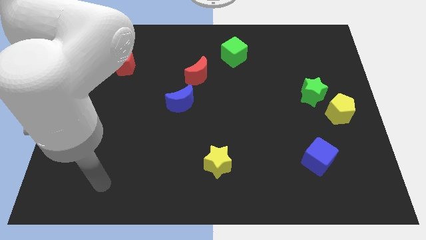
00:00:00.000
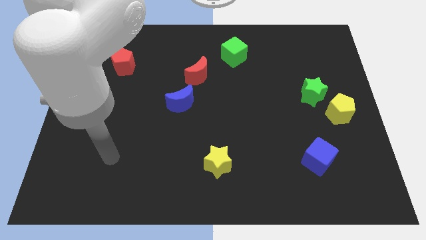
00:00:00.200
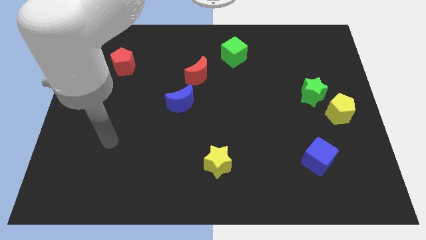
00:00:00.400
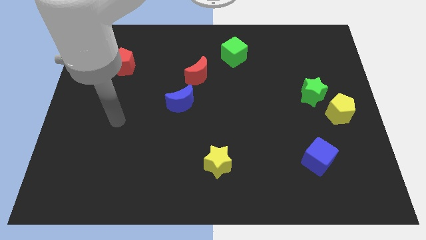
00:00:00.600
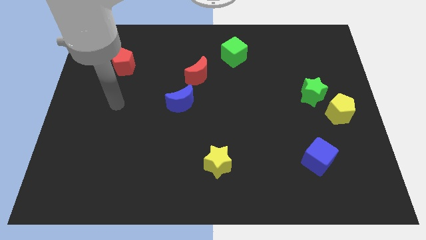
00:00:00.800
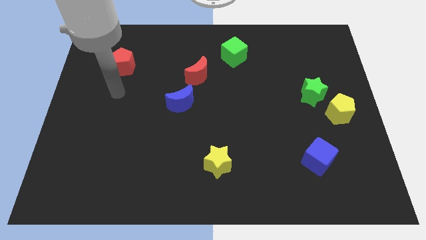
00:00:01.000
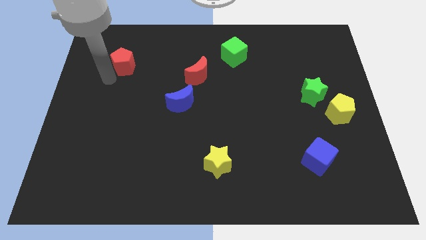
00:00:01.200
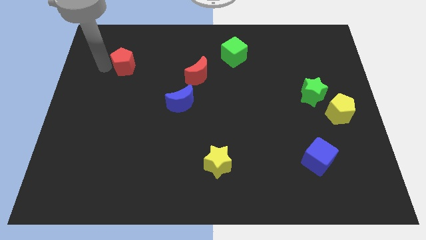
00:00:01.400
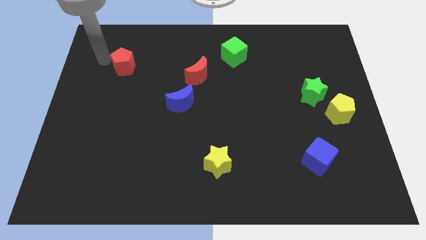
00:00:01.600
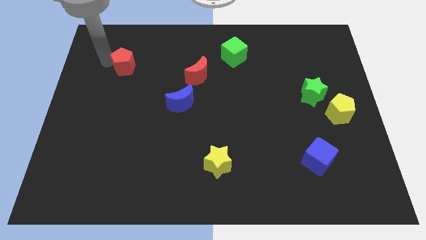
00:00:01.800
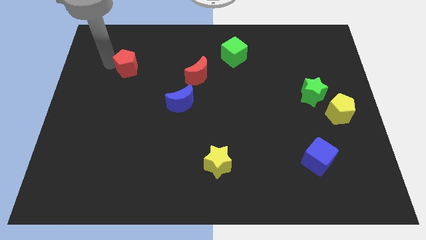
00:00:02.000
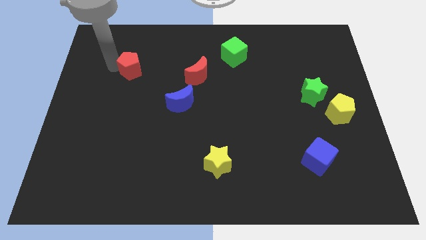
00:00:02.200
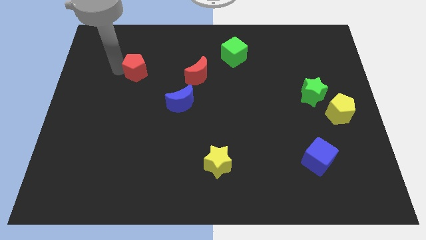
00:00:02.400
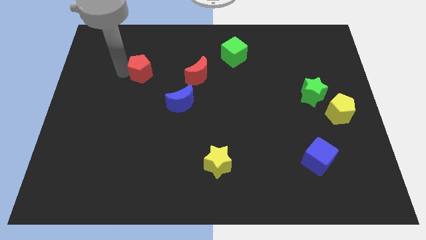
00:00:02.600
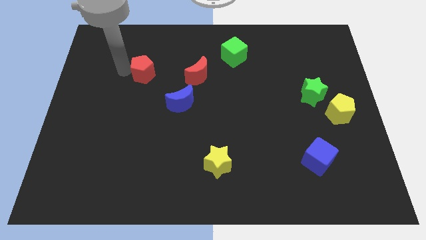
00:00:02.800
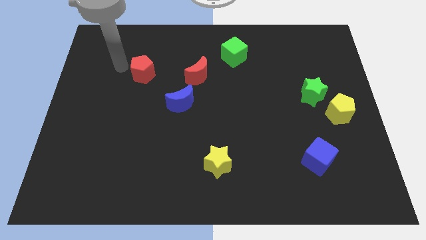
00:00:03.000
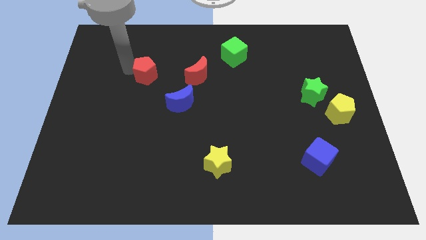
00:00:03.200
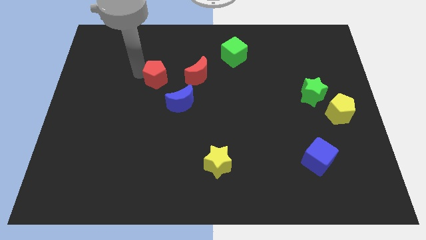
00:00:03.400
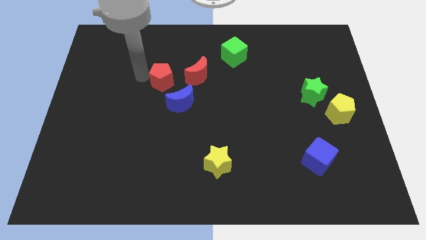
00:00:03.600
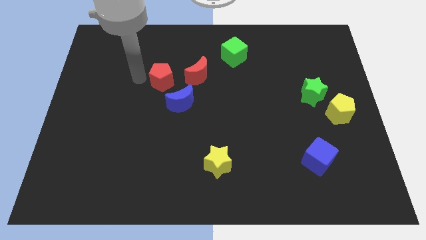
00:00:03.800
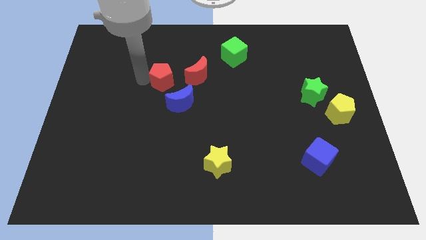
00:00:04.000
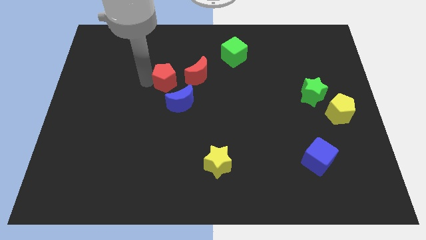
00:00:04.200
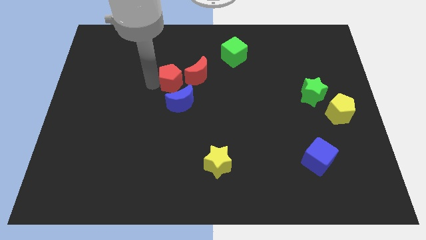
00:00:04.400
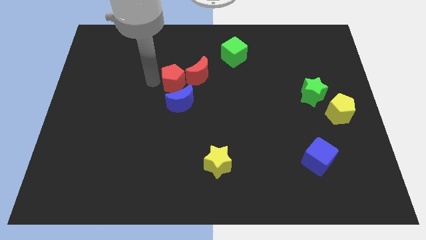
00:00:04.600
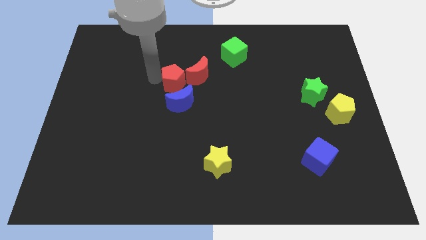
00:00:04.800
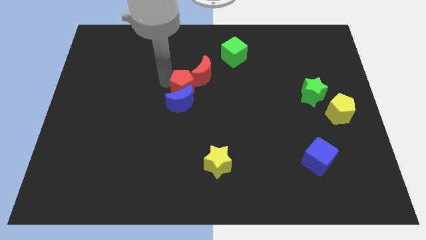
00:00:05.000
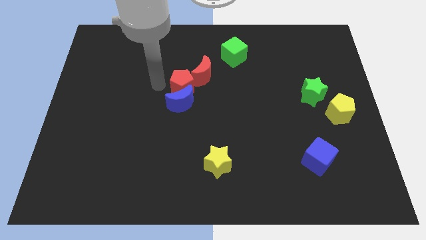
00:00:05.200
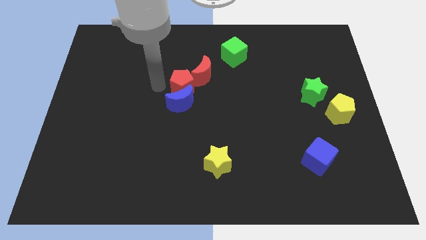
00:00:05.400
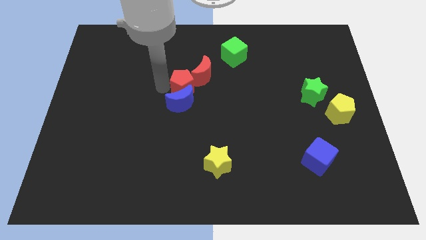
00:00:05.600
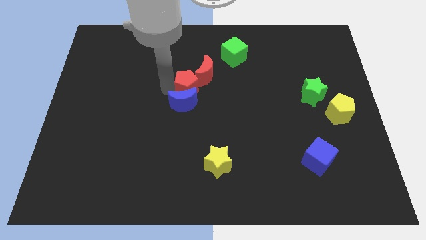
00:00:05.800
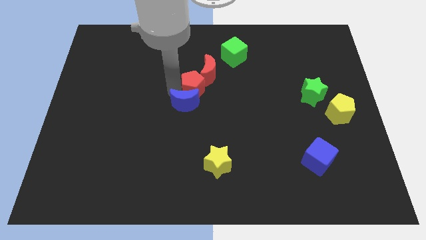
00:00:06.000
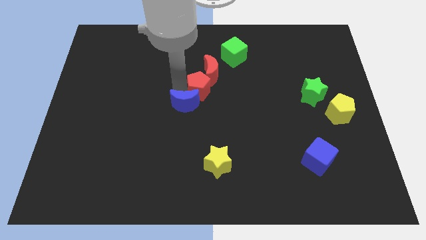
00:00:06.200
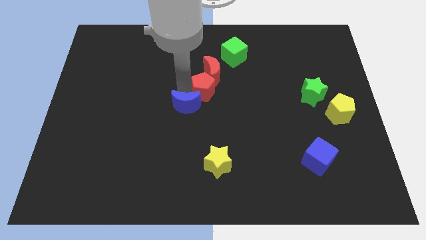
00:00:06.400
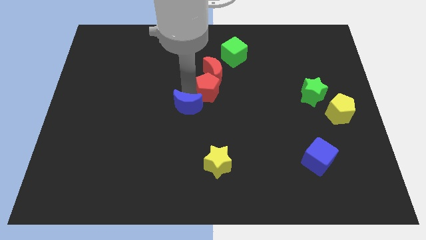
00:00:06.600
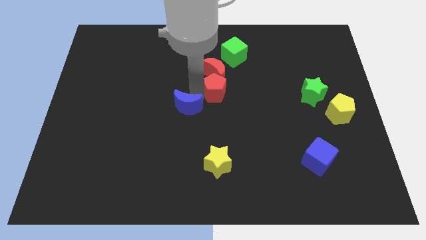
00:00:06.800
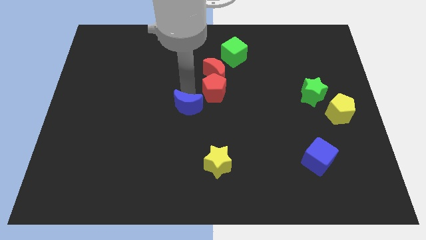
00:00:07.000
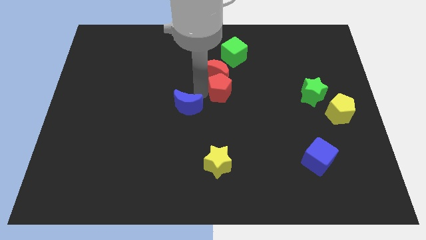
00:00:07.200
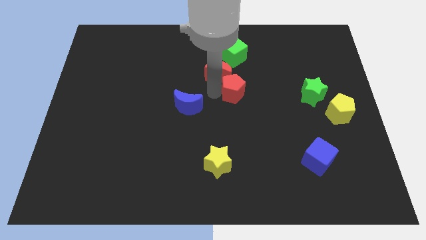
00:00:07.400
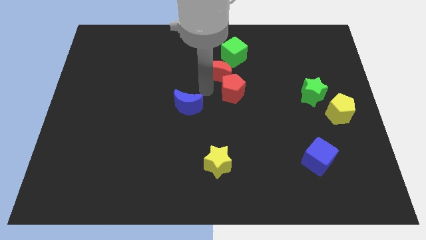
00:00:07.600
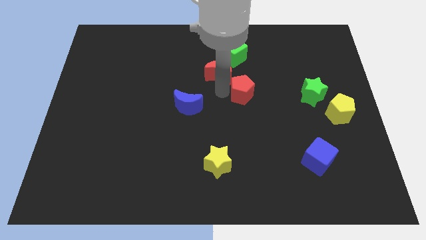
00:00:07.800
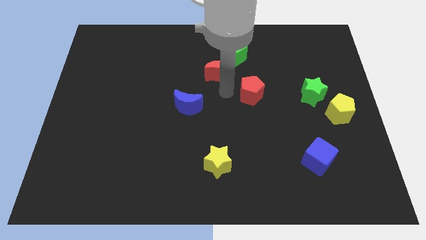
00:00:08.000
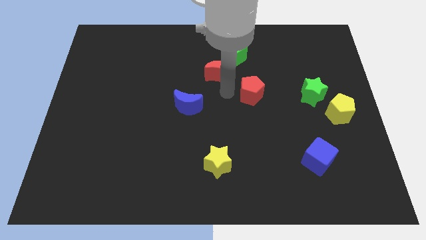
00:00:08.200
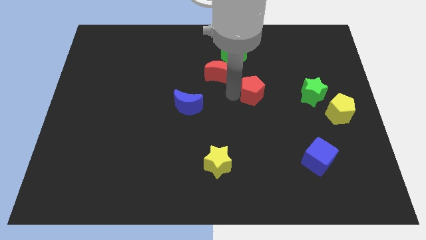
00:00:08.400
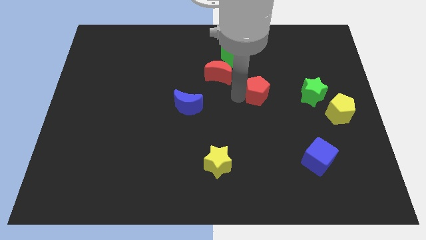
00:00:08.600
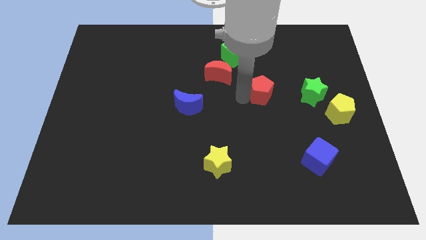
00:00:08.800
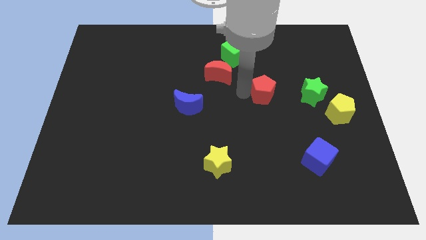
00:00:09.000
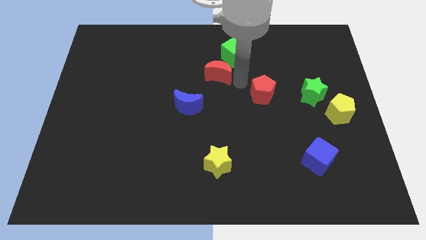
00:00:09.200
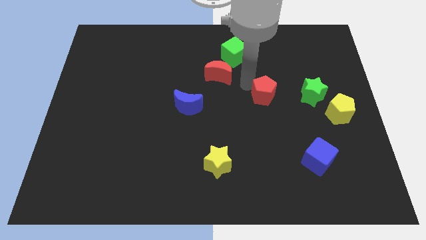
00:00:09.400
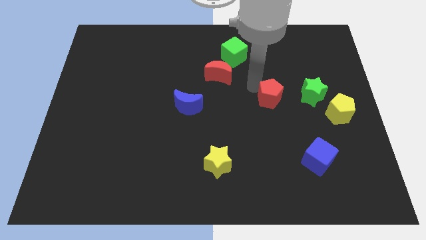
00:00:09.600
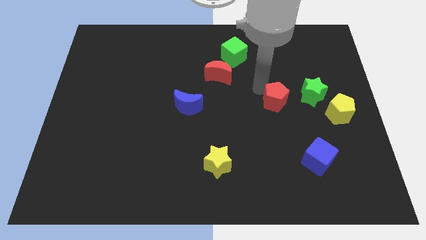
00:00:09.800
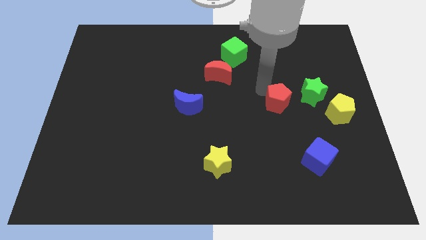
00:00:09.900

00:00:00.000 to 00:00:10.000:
push the red pentagon diagonally down and to the left of the green star

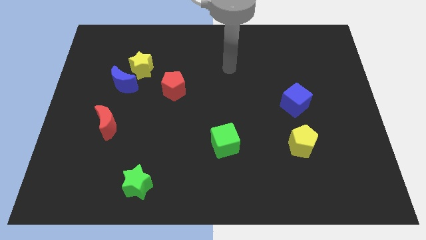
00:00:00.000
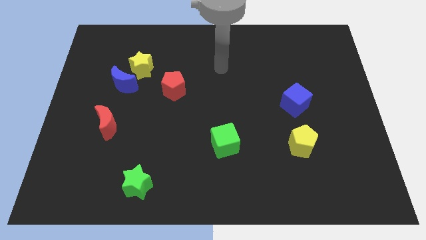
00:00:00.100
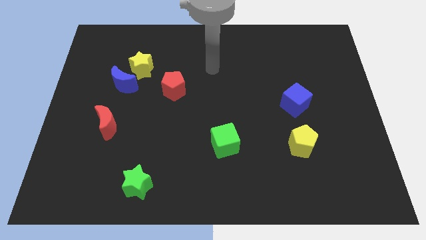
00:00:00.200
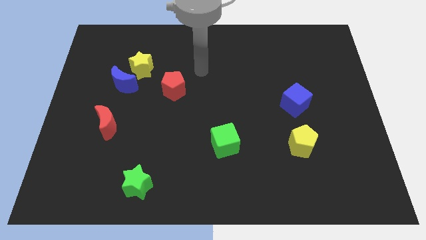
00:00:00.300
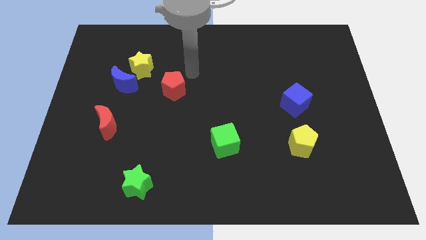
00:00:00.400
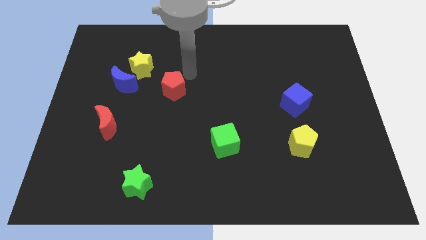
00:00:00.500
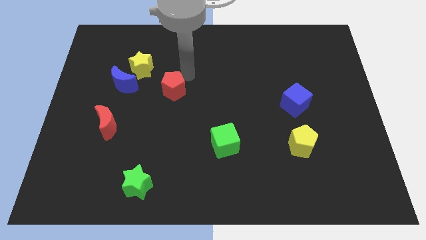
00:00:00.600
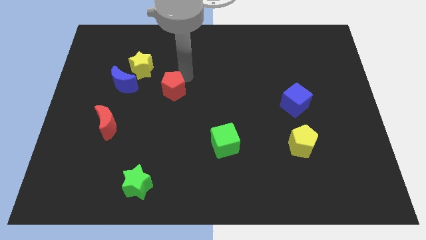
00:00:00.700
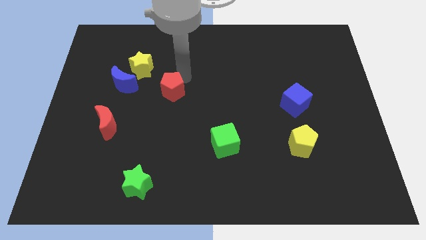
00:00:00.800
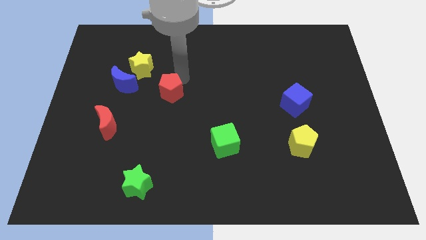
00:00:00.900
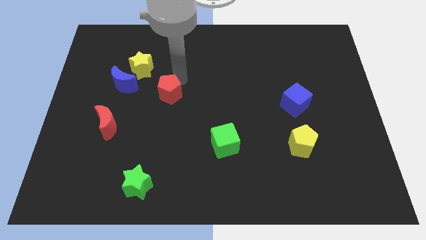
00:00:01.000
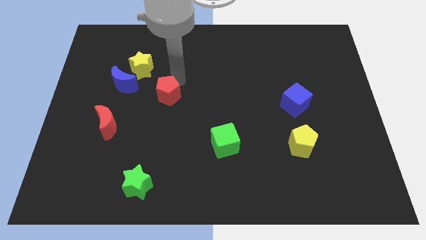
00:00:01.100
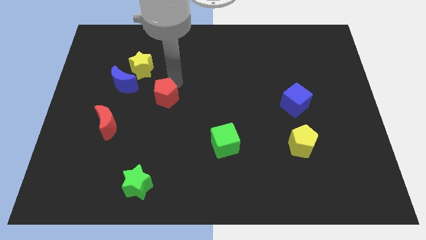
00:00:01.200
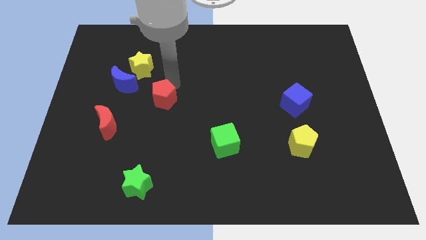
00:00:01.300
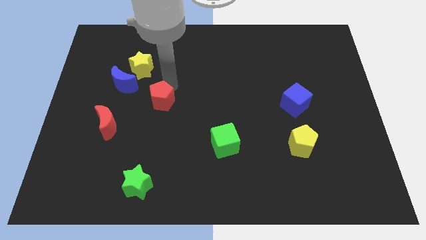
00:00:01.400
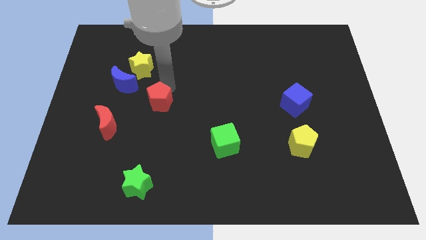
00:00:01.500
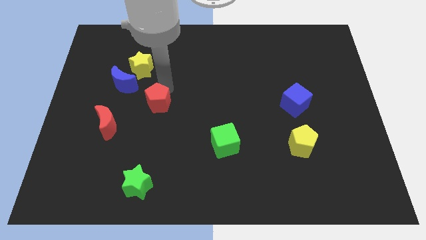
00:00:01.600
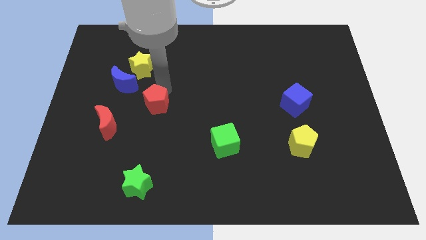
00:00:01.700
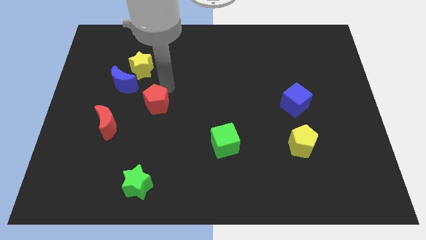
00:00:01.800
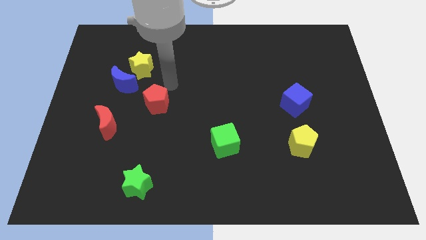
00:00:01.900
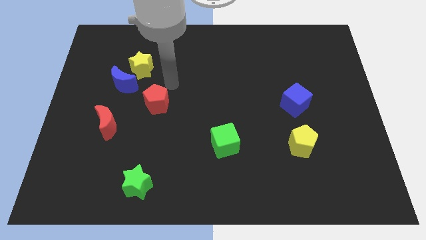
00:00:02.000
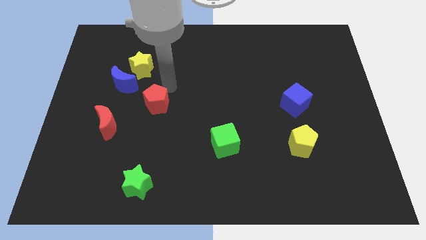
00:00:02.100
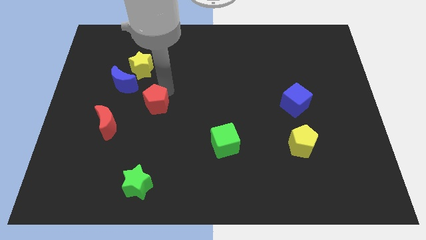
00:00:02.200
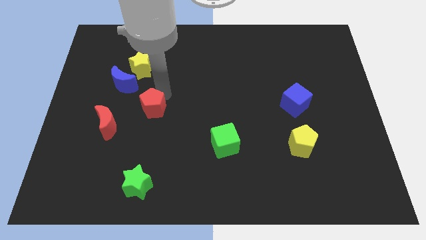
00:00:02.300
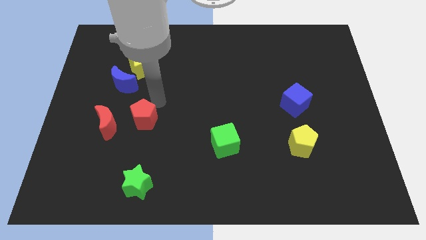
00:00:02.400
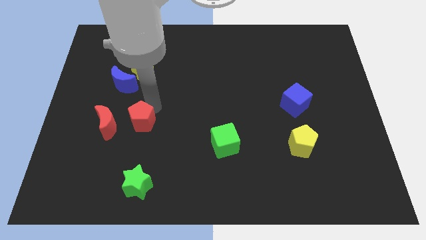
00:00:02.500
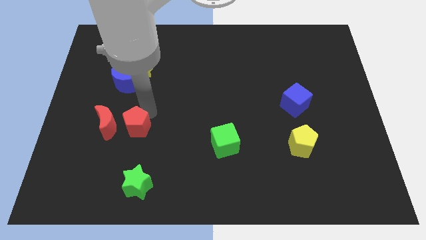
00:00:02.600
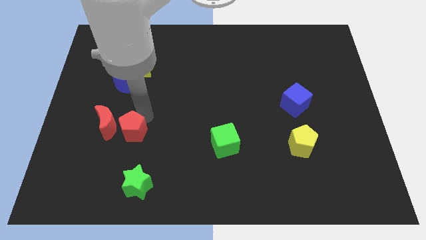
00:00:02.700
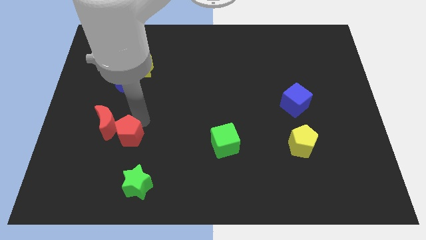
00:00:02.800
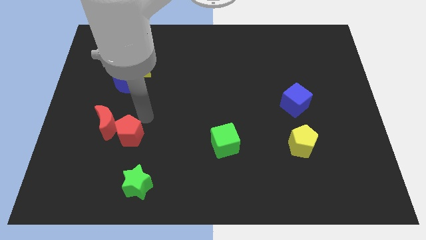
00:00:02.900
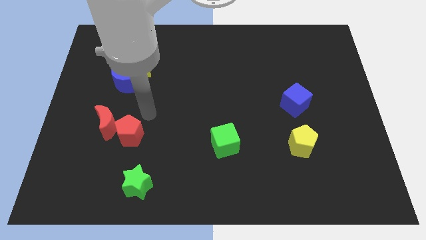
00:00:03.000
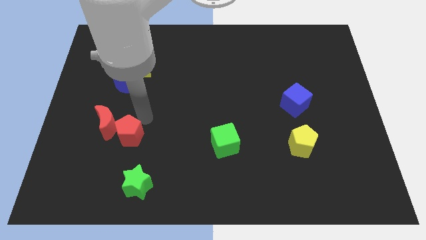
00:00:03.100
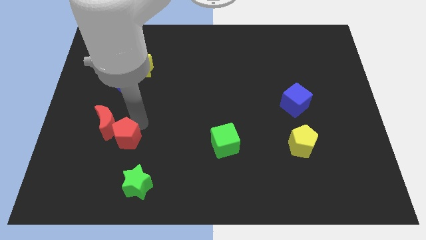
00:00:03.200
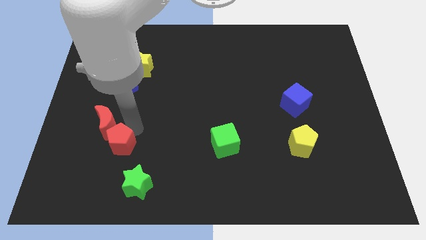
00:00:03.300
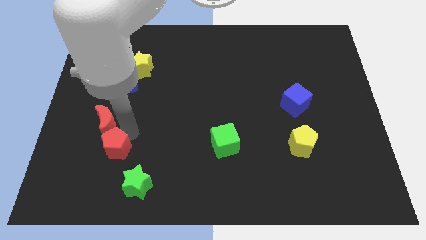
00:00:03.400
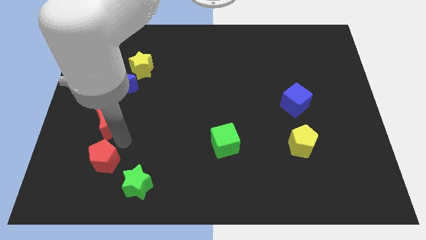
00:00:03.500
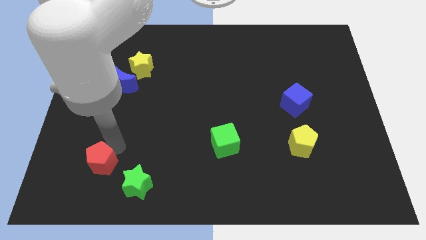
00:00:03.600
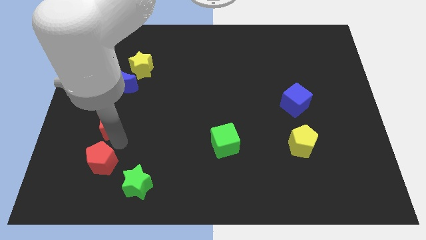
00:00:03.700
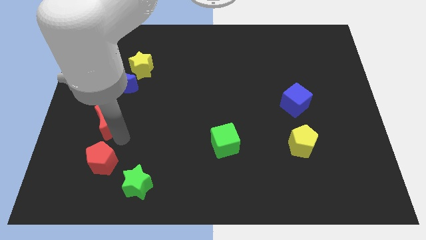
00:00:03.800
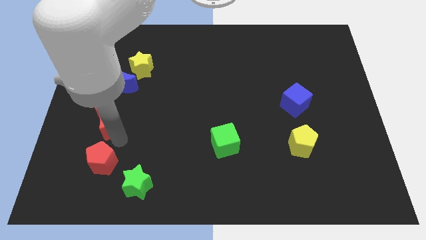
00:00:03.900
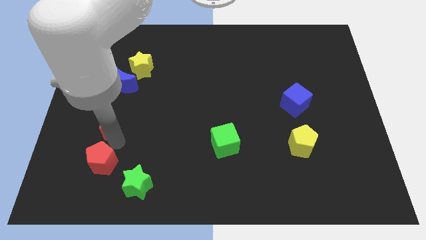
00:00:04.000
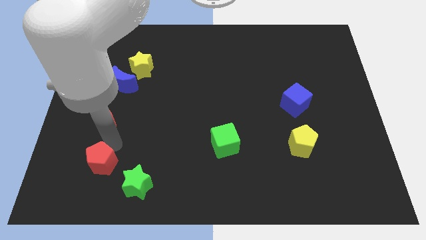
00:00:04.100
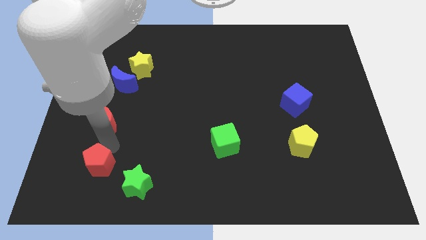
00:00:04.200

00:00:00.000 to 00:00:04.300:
push the red pentagon left of the green star
